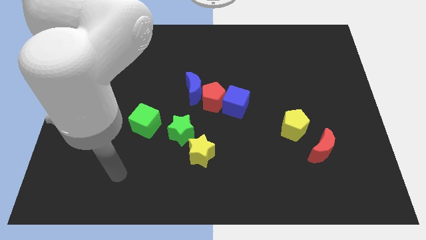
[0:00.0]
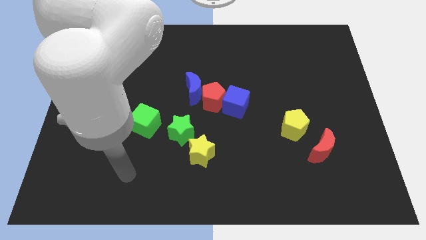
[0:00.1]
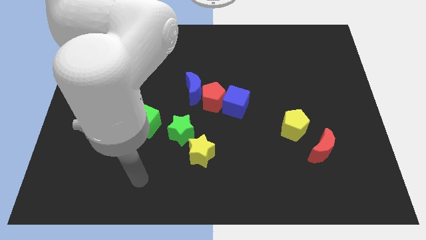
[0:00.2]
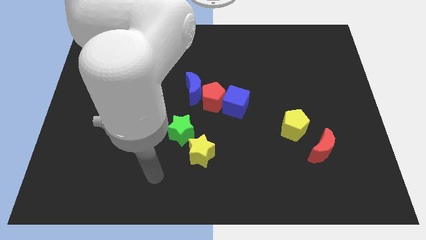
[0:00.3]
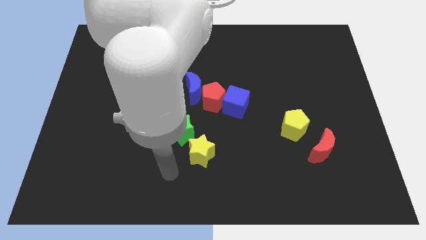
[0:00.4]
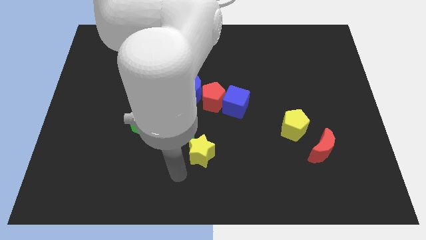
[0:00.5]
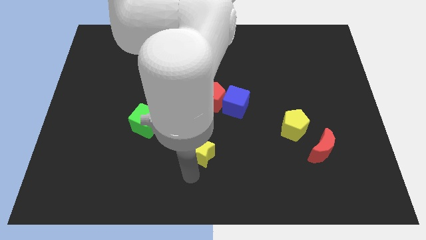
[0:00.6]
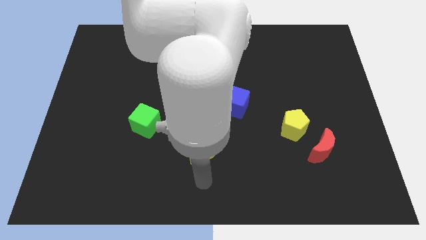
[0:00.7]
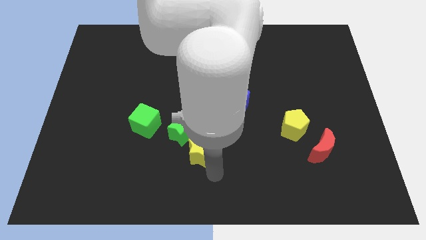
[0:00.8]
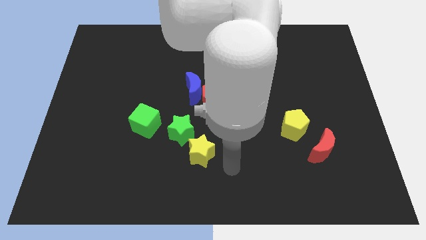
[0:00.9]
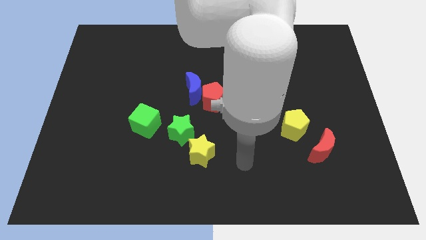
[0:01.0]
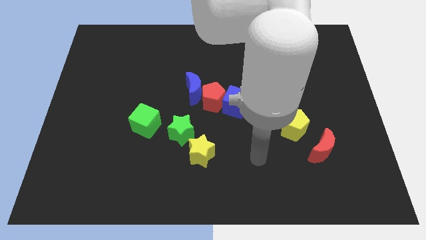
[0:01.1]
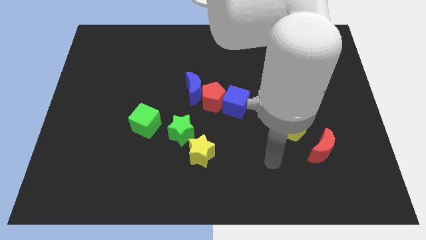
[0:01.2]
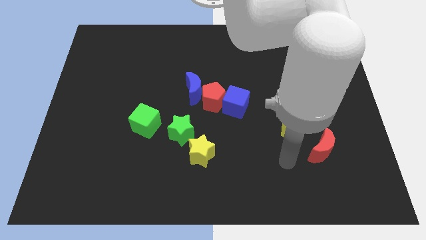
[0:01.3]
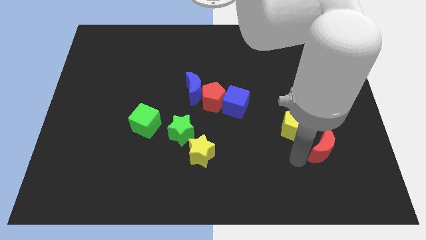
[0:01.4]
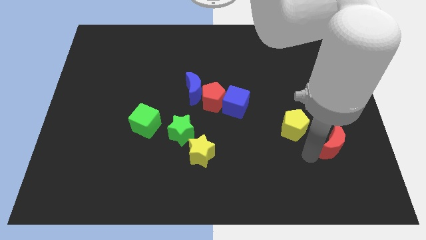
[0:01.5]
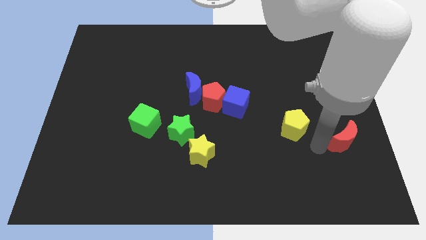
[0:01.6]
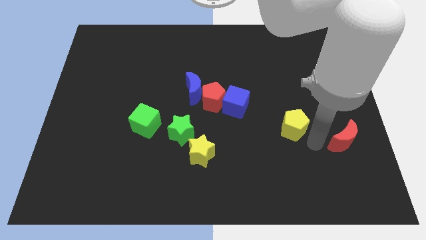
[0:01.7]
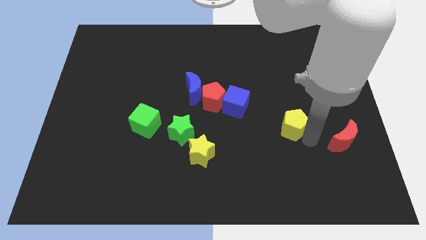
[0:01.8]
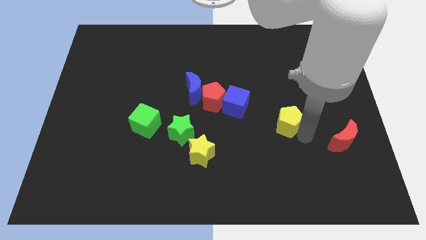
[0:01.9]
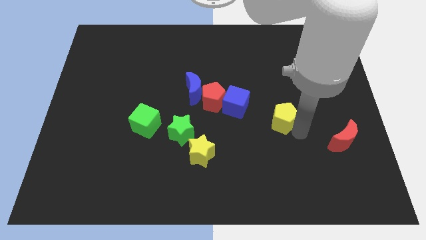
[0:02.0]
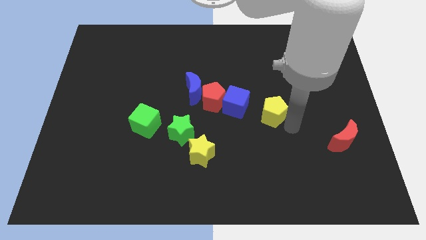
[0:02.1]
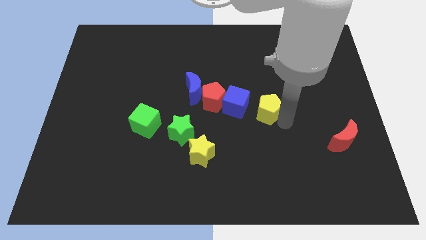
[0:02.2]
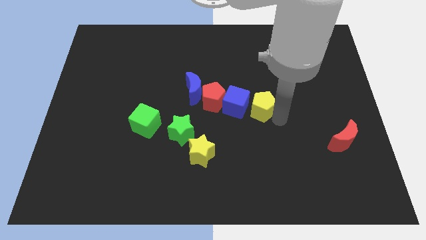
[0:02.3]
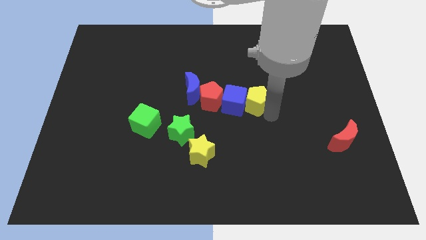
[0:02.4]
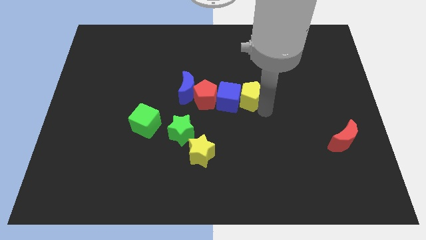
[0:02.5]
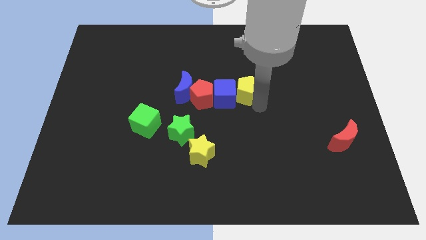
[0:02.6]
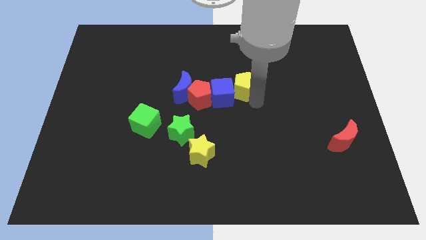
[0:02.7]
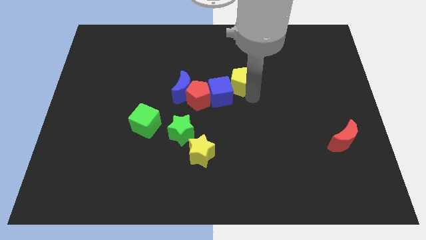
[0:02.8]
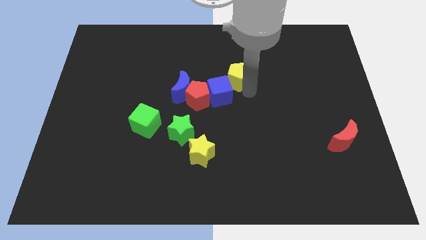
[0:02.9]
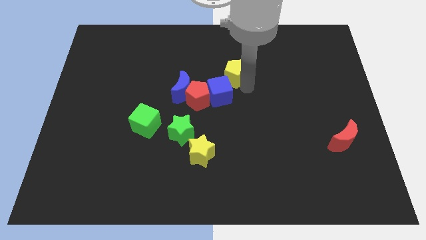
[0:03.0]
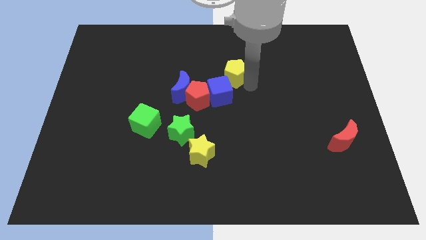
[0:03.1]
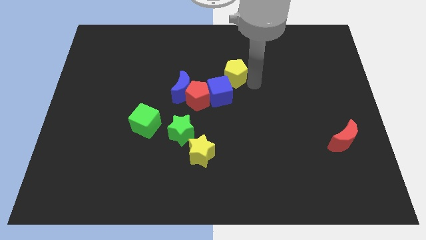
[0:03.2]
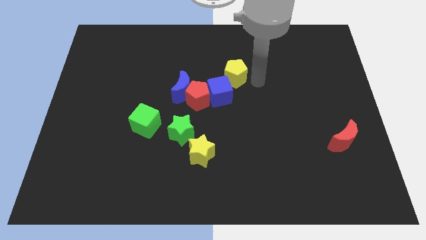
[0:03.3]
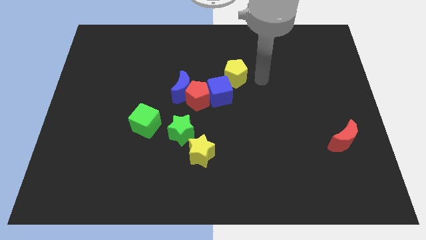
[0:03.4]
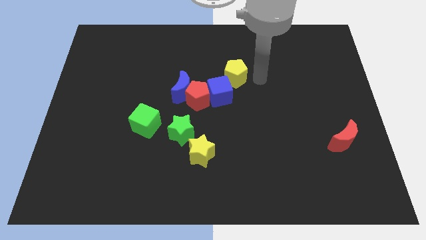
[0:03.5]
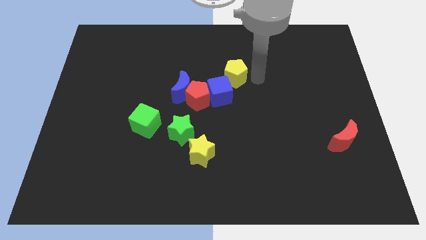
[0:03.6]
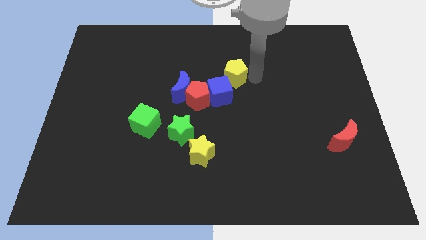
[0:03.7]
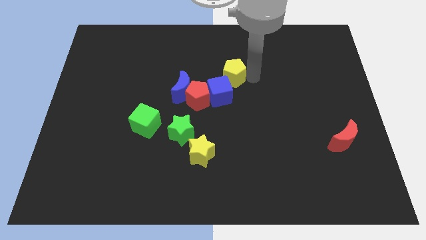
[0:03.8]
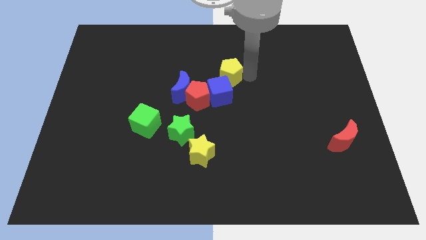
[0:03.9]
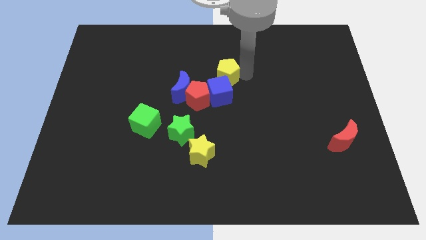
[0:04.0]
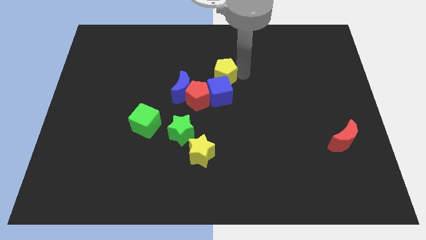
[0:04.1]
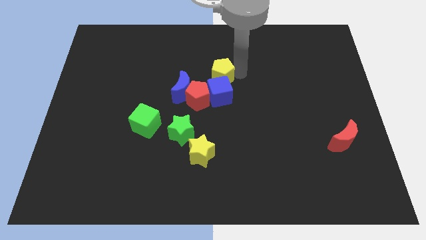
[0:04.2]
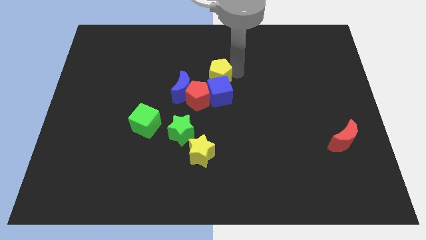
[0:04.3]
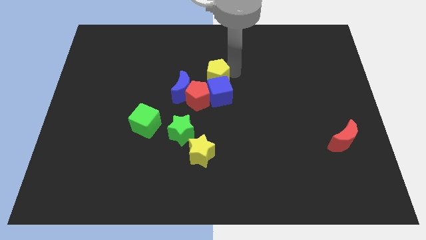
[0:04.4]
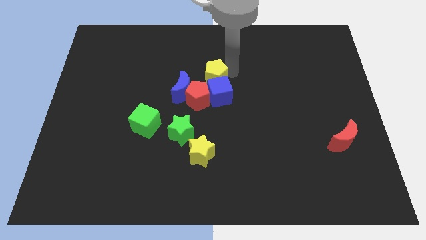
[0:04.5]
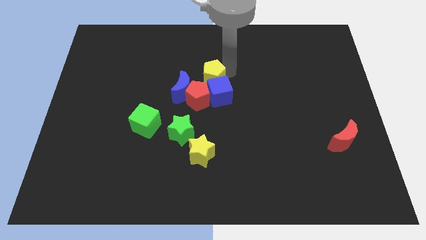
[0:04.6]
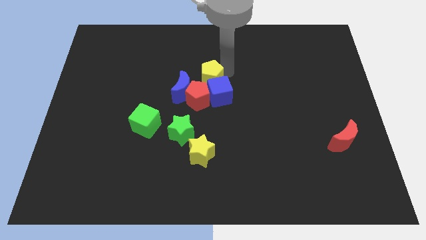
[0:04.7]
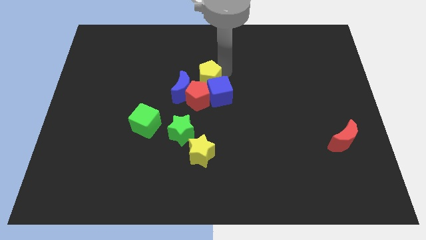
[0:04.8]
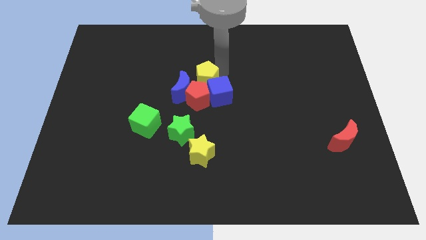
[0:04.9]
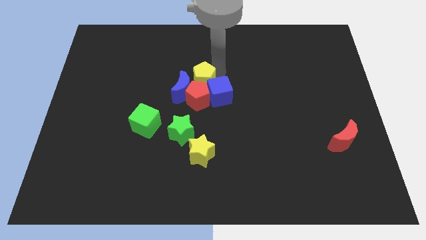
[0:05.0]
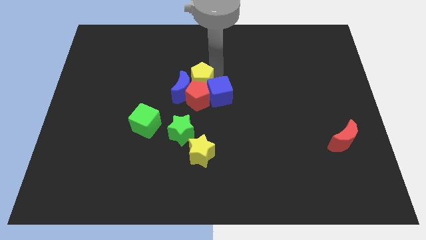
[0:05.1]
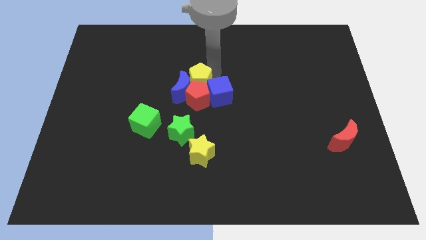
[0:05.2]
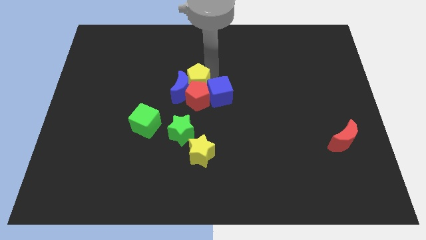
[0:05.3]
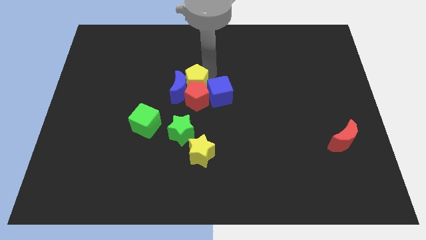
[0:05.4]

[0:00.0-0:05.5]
push the yellow pentagon above the green star

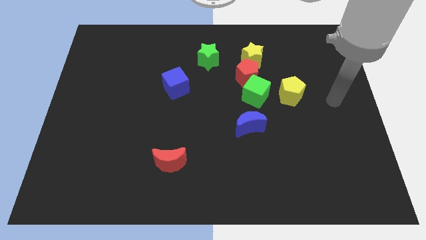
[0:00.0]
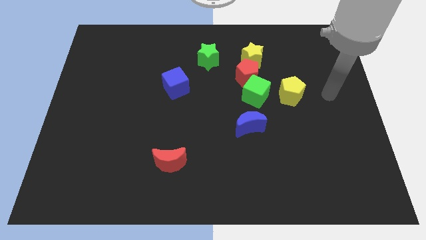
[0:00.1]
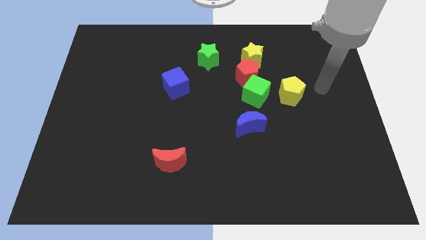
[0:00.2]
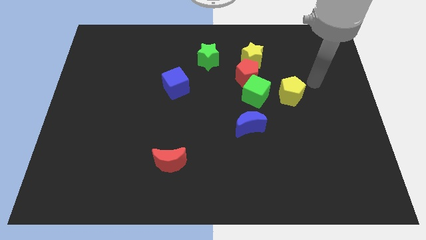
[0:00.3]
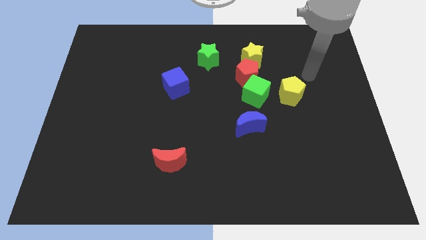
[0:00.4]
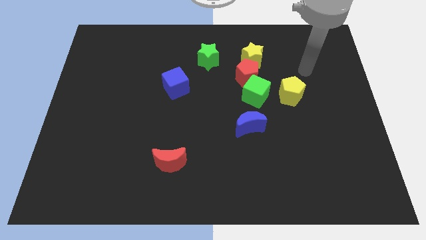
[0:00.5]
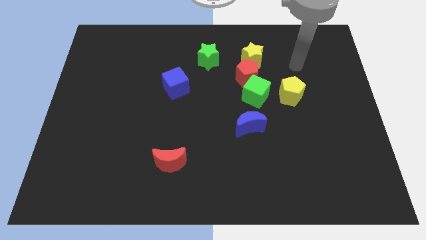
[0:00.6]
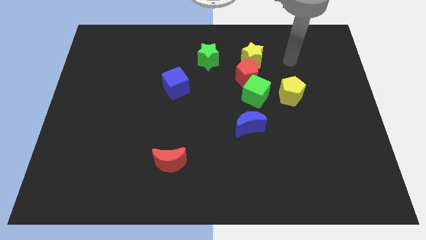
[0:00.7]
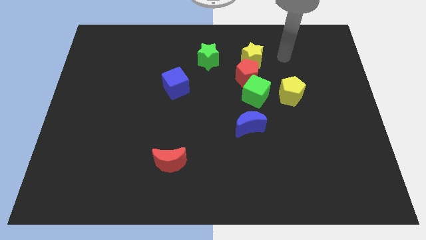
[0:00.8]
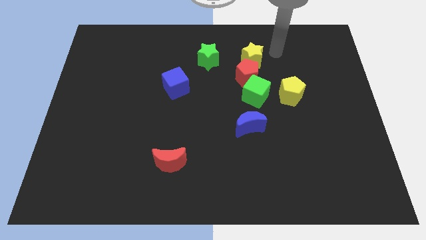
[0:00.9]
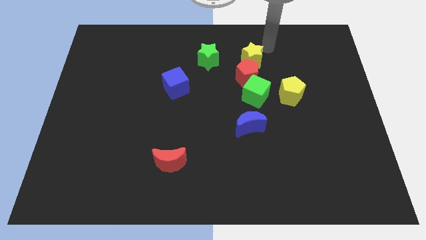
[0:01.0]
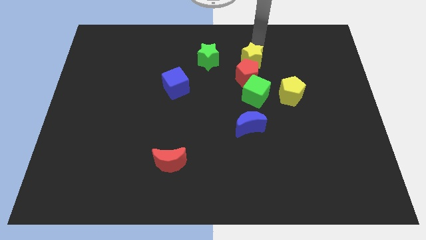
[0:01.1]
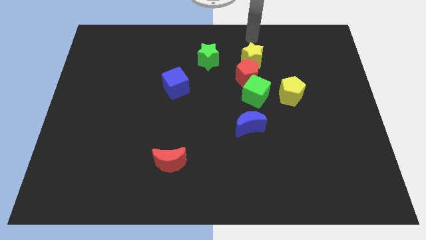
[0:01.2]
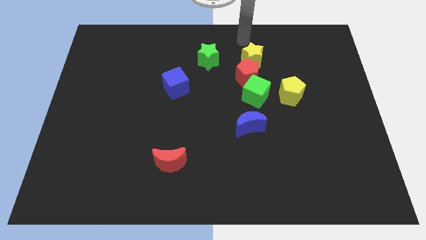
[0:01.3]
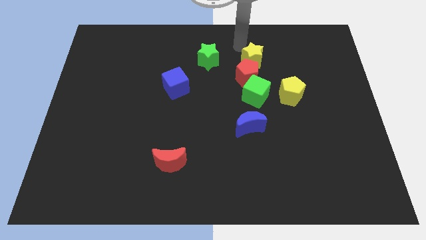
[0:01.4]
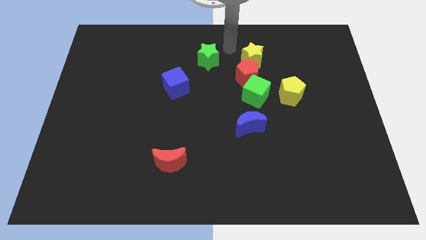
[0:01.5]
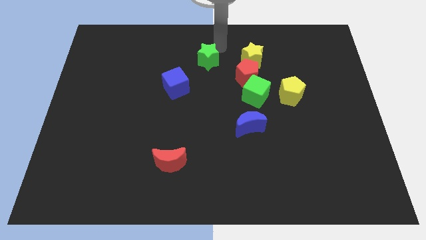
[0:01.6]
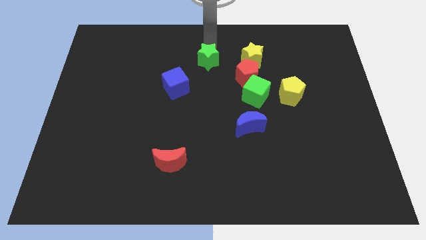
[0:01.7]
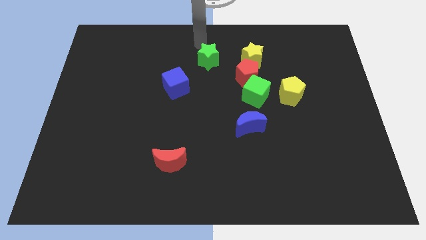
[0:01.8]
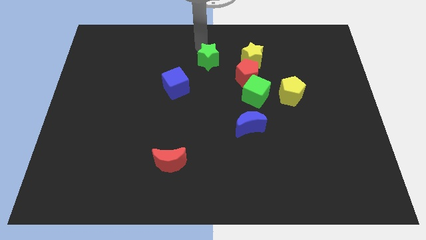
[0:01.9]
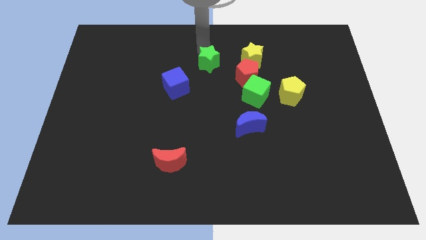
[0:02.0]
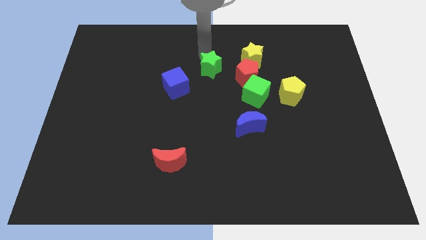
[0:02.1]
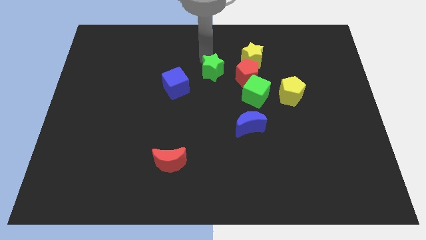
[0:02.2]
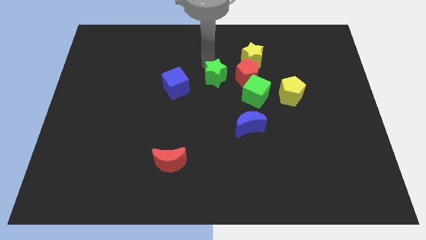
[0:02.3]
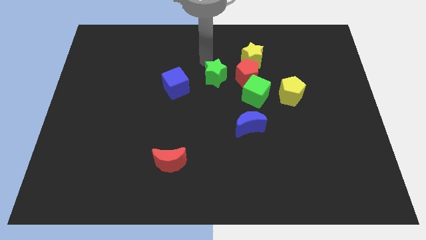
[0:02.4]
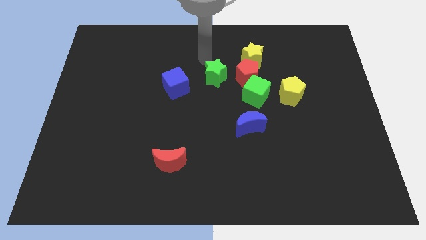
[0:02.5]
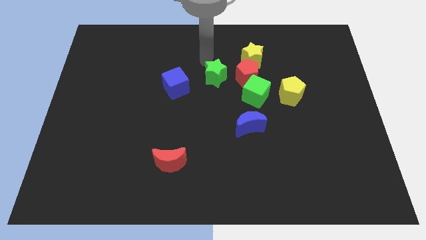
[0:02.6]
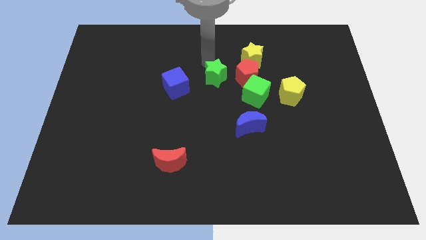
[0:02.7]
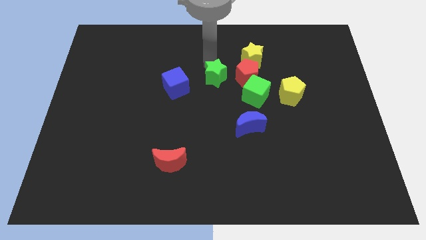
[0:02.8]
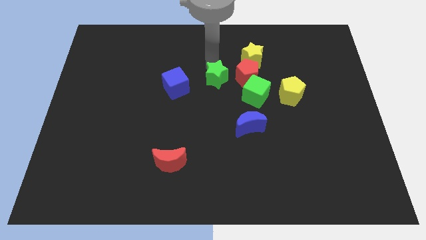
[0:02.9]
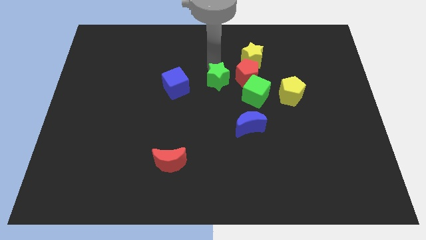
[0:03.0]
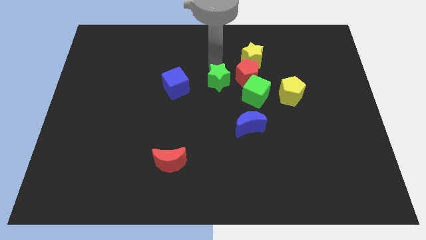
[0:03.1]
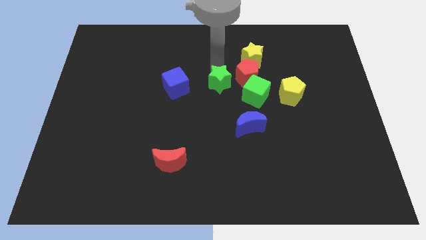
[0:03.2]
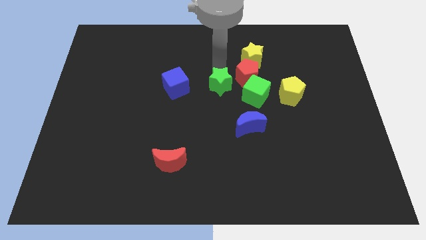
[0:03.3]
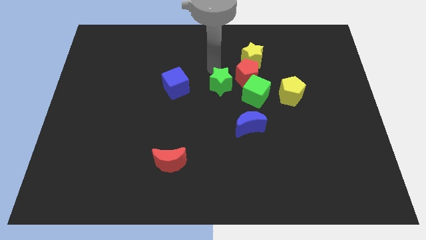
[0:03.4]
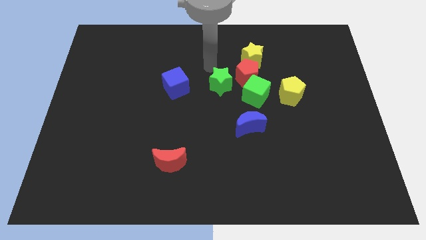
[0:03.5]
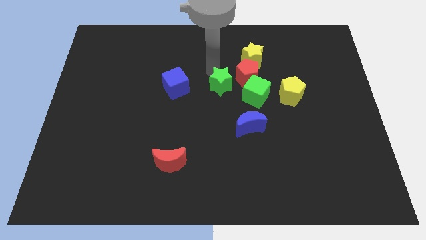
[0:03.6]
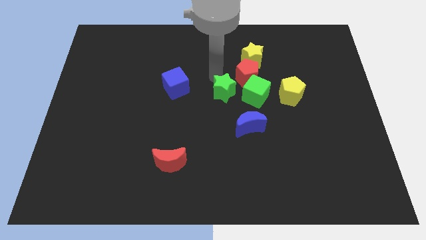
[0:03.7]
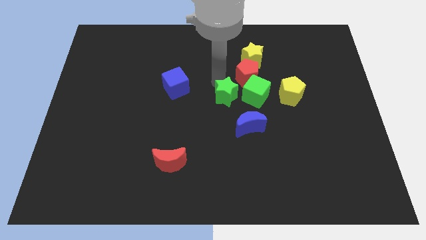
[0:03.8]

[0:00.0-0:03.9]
slide the green star diagonally down and to the left of the green cube
